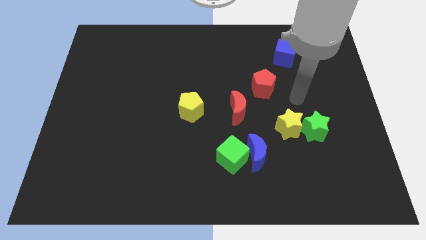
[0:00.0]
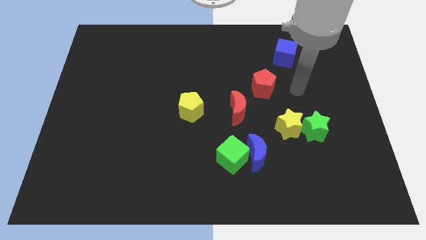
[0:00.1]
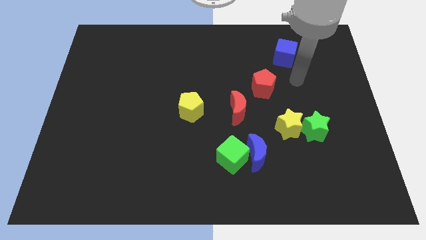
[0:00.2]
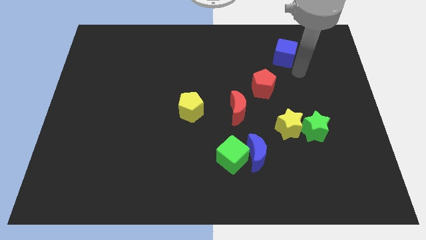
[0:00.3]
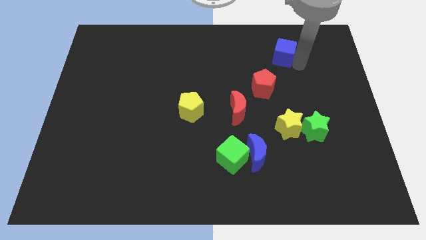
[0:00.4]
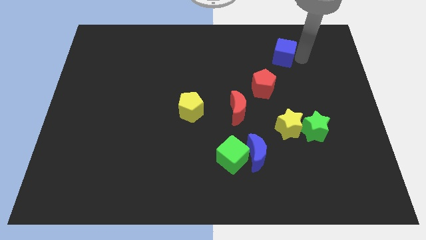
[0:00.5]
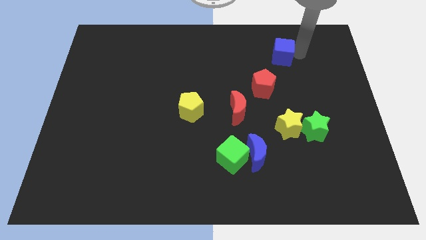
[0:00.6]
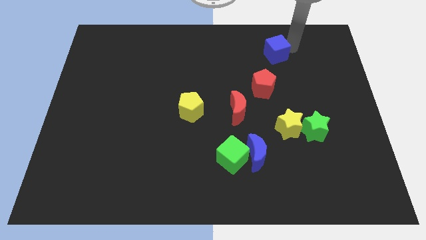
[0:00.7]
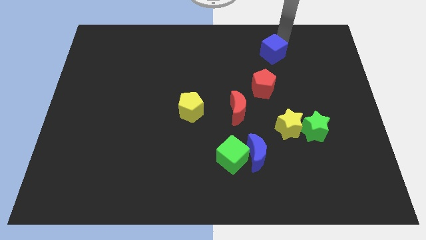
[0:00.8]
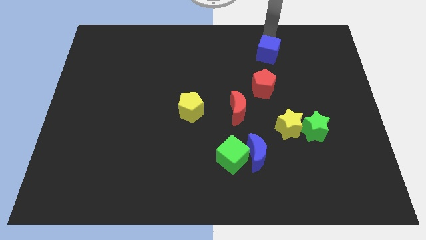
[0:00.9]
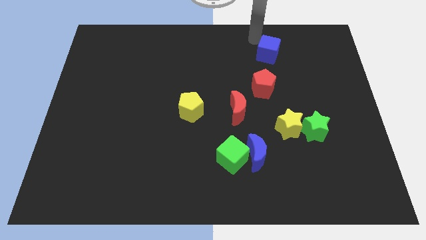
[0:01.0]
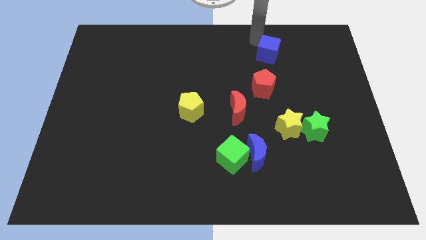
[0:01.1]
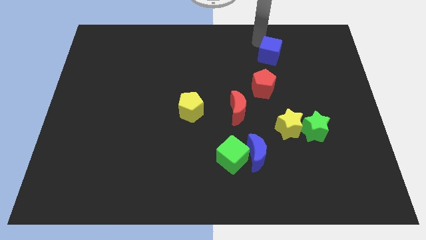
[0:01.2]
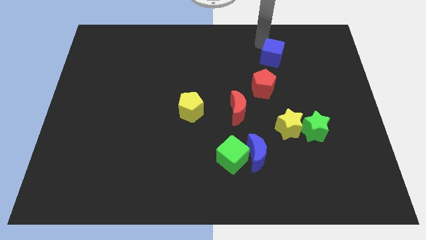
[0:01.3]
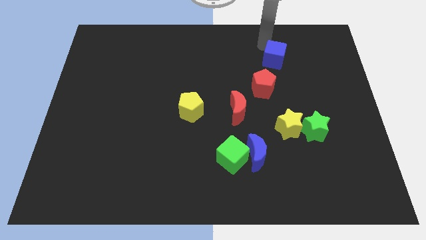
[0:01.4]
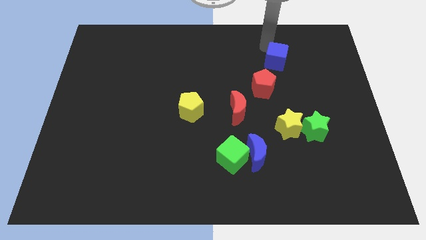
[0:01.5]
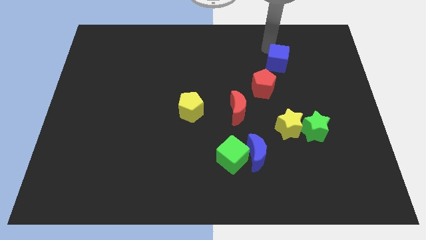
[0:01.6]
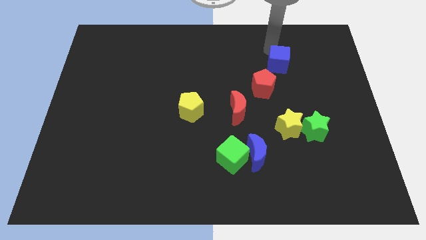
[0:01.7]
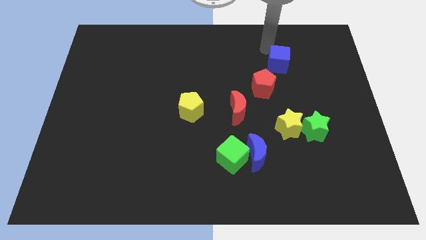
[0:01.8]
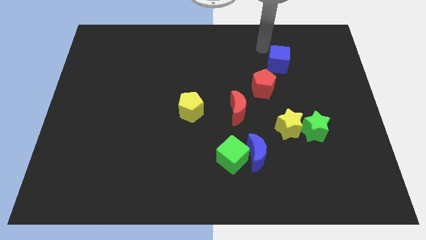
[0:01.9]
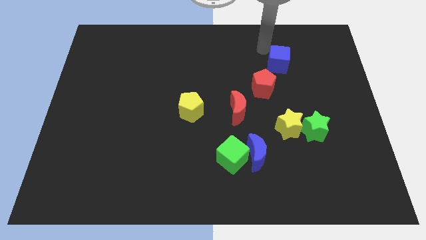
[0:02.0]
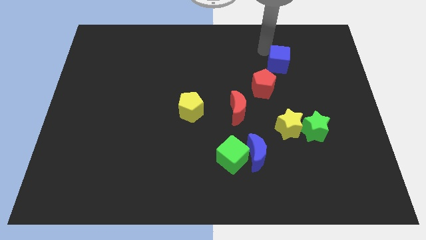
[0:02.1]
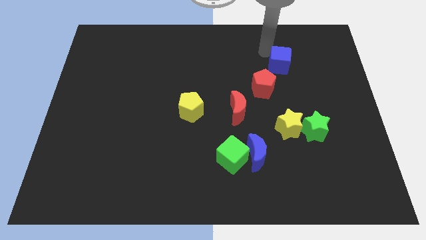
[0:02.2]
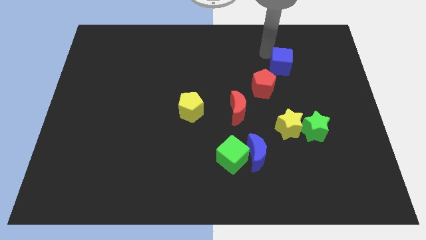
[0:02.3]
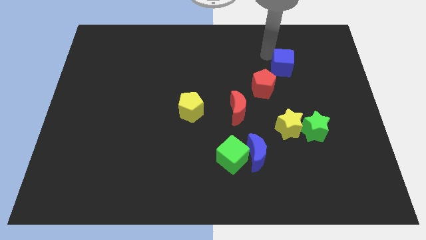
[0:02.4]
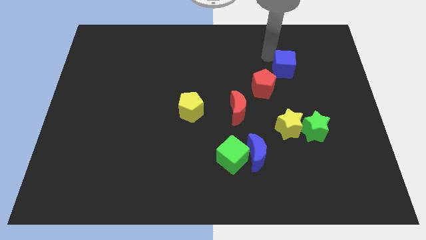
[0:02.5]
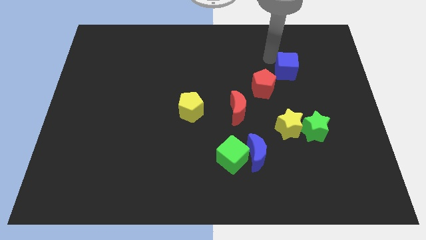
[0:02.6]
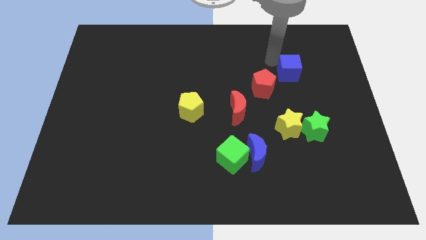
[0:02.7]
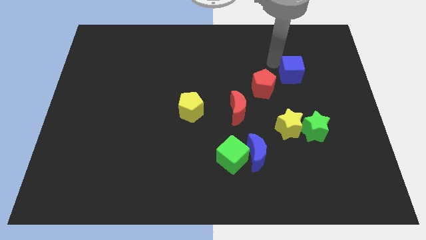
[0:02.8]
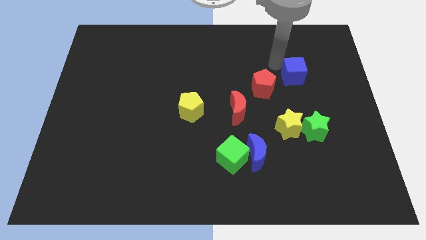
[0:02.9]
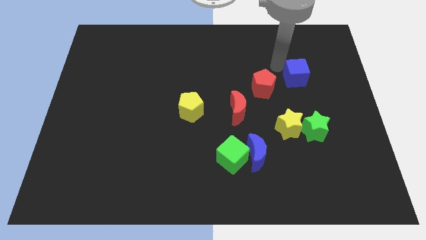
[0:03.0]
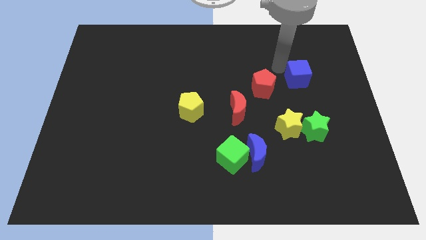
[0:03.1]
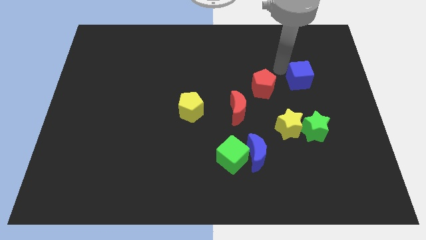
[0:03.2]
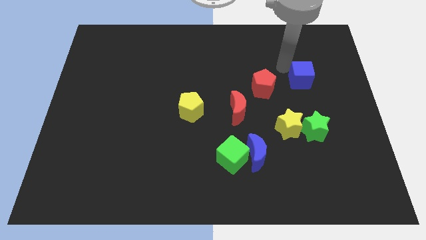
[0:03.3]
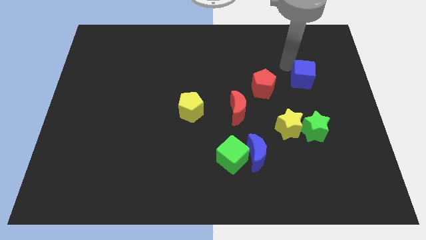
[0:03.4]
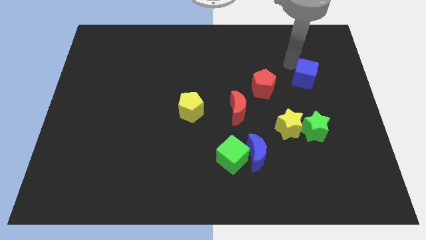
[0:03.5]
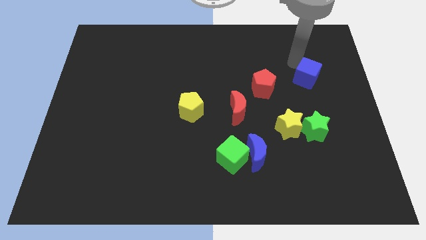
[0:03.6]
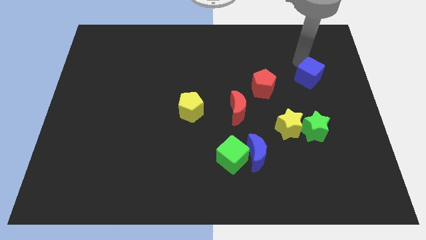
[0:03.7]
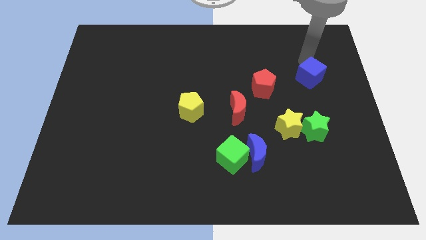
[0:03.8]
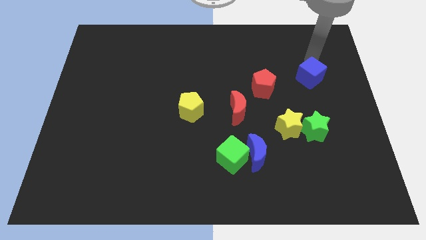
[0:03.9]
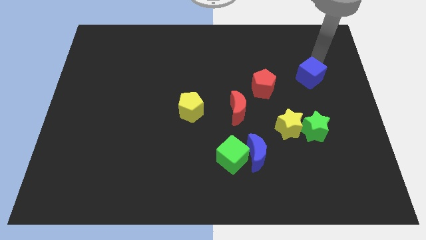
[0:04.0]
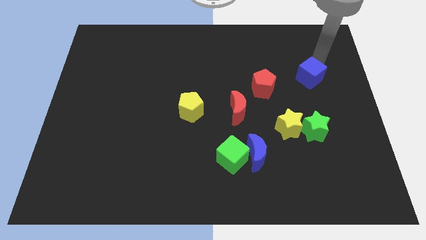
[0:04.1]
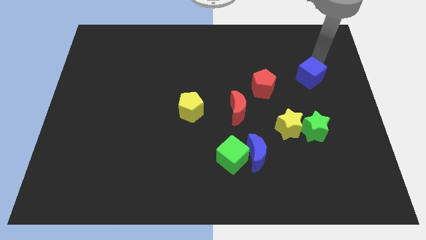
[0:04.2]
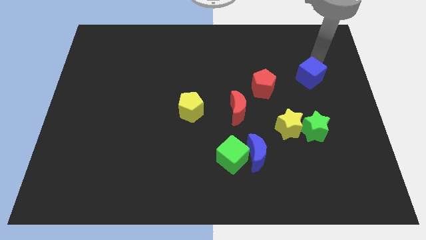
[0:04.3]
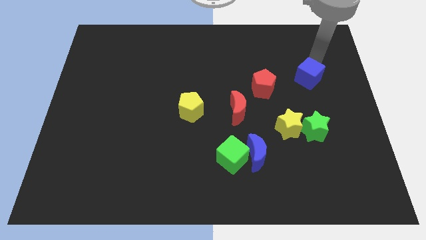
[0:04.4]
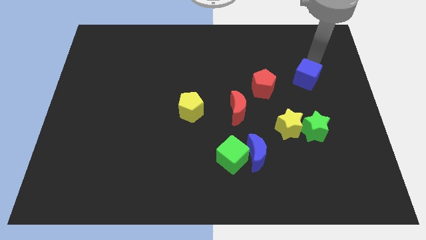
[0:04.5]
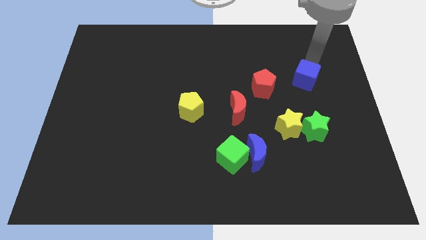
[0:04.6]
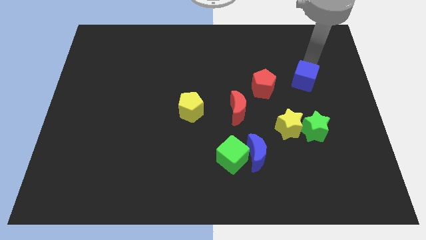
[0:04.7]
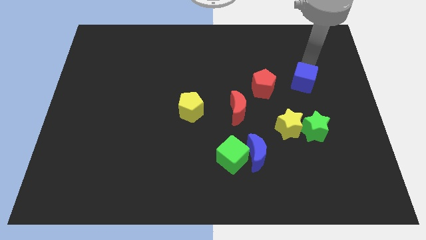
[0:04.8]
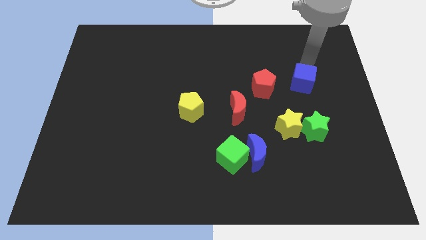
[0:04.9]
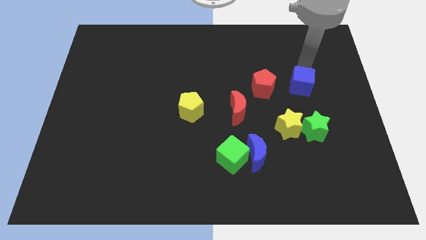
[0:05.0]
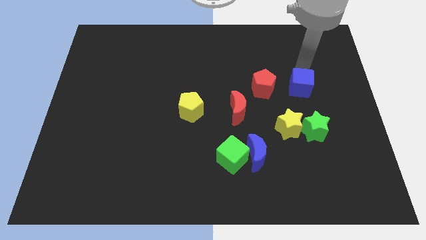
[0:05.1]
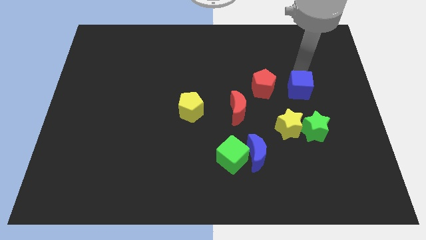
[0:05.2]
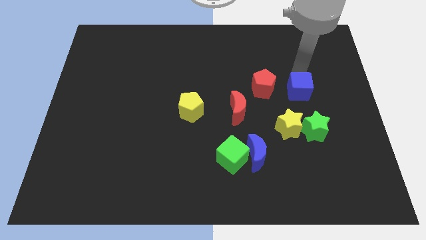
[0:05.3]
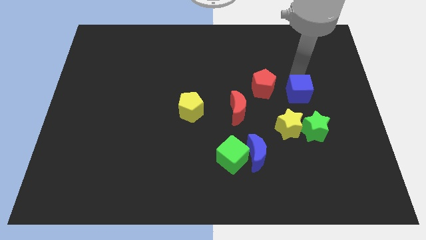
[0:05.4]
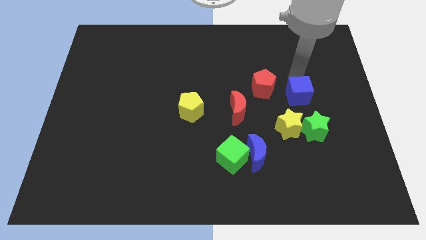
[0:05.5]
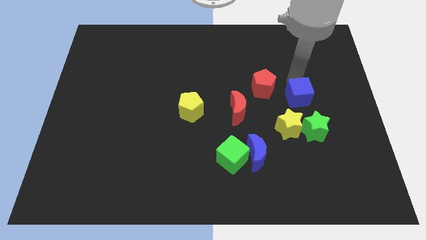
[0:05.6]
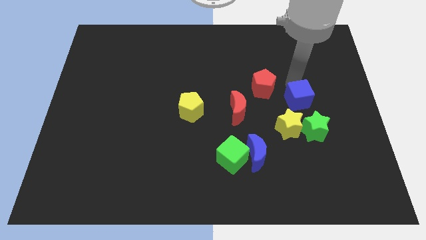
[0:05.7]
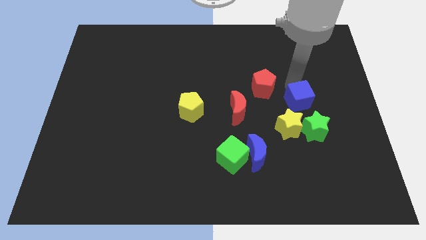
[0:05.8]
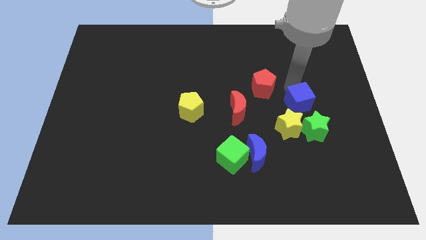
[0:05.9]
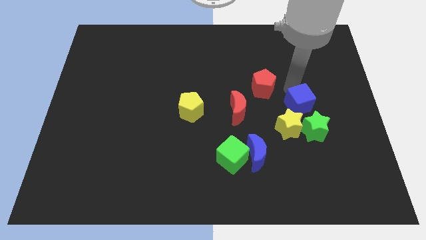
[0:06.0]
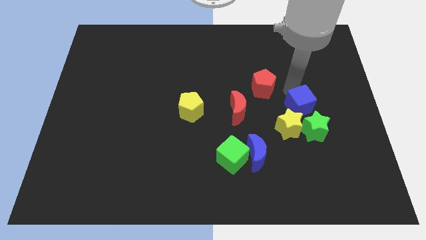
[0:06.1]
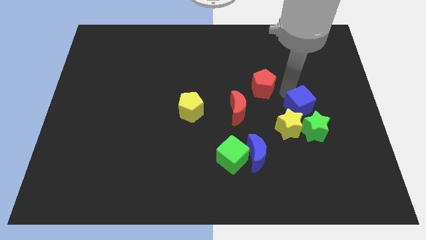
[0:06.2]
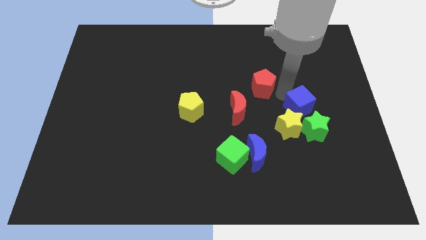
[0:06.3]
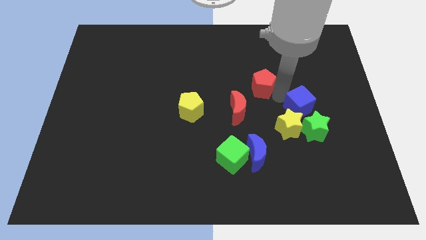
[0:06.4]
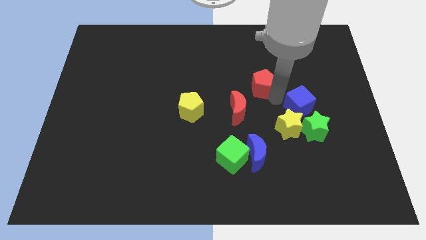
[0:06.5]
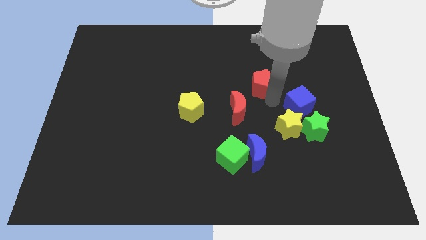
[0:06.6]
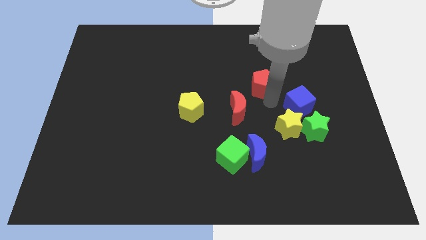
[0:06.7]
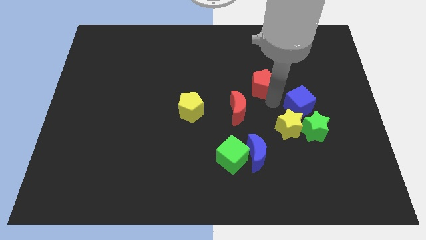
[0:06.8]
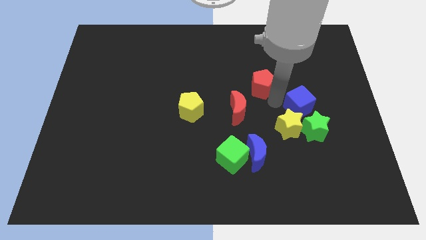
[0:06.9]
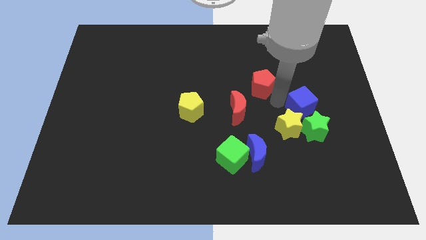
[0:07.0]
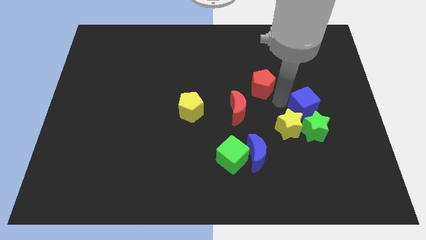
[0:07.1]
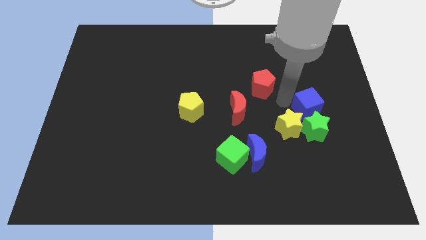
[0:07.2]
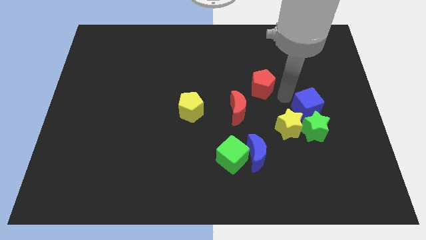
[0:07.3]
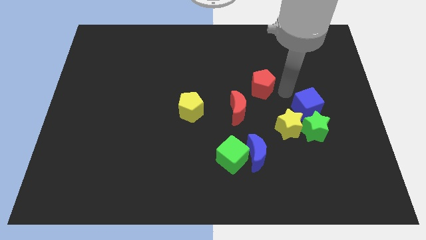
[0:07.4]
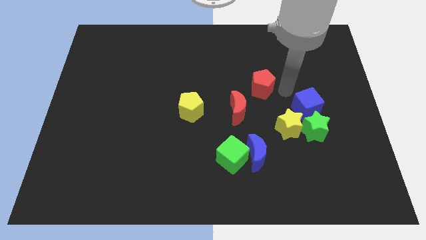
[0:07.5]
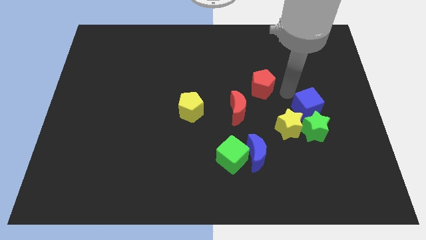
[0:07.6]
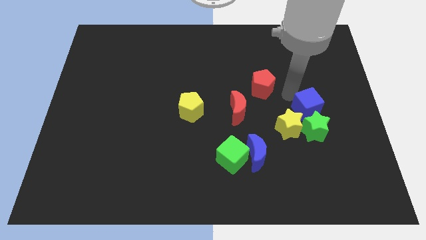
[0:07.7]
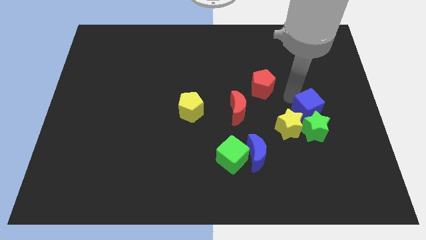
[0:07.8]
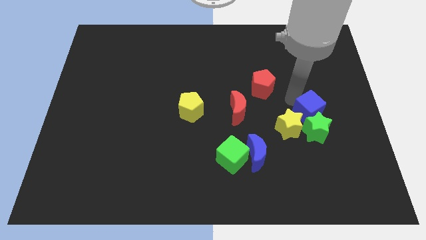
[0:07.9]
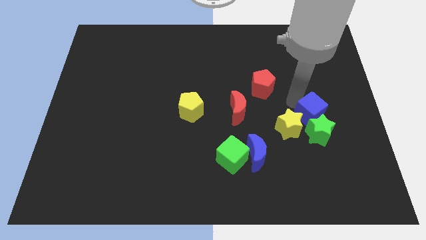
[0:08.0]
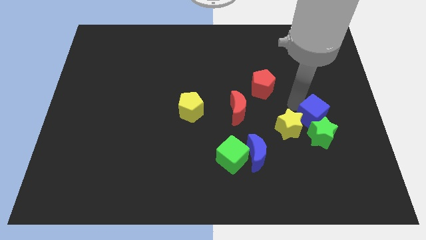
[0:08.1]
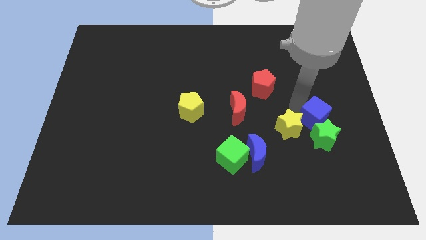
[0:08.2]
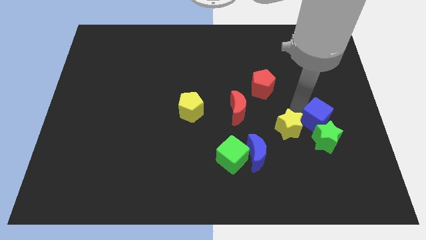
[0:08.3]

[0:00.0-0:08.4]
move the blue cube down
